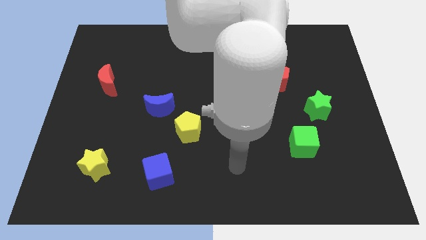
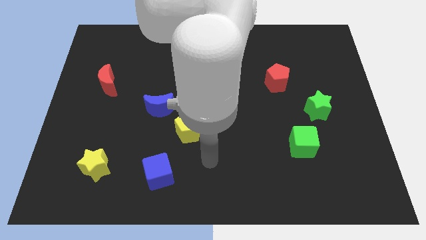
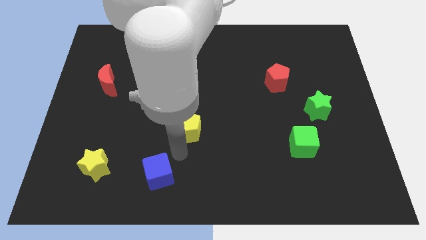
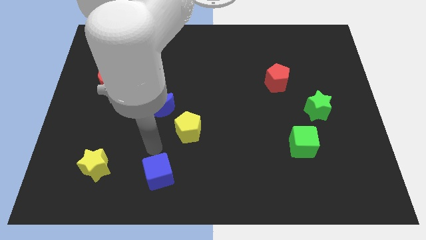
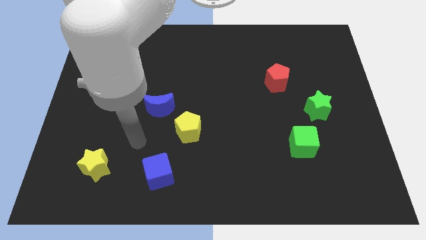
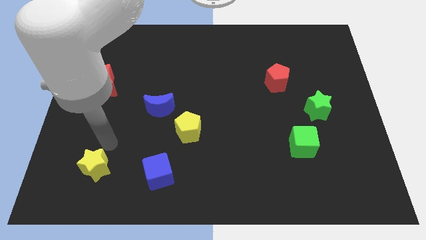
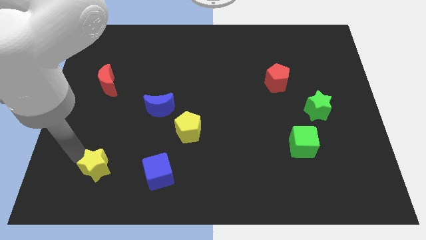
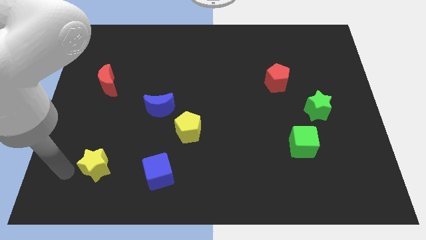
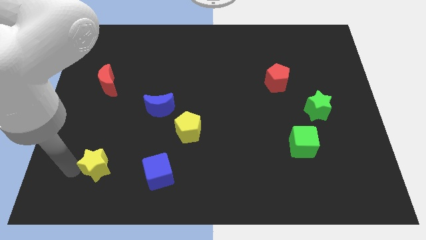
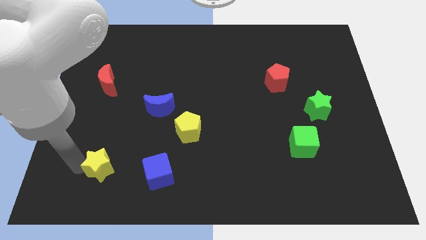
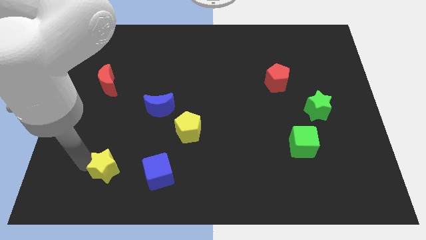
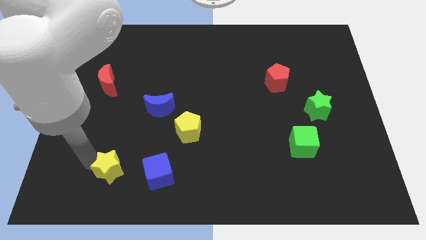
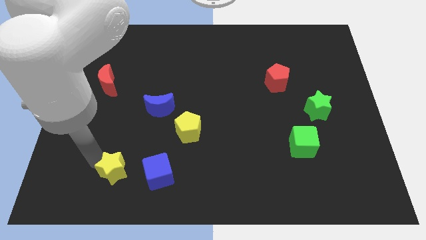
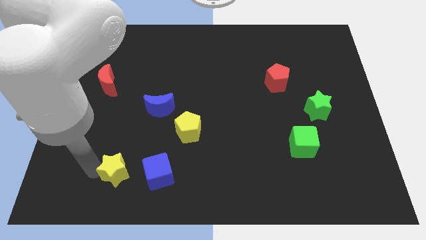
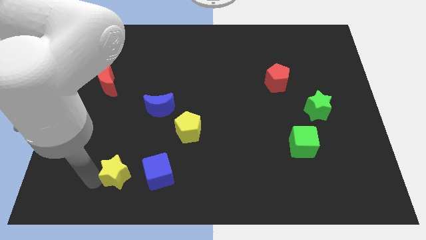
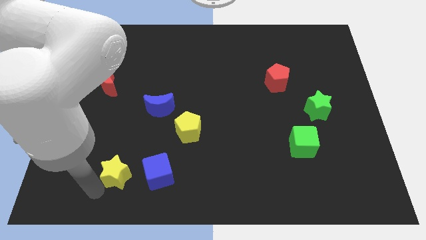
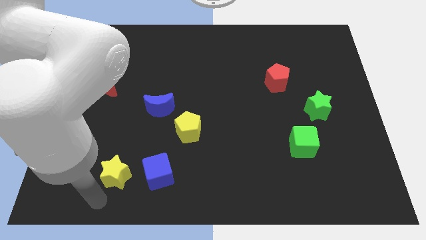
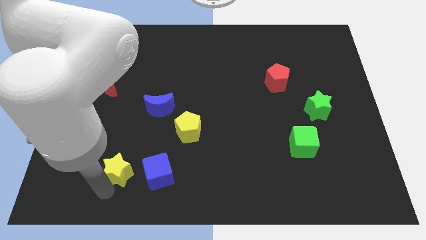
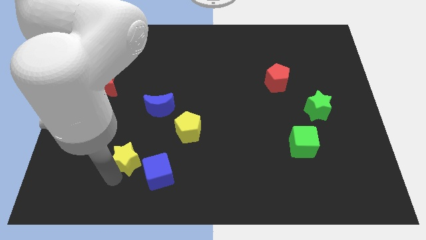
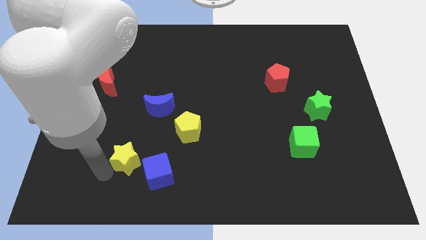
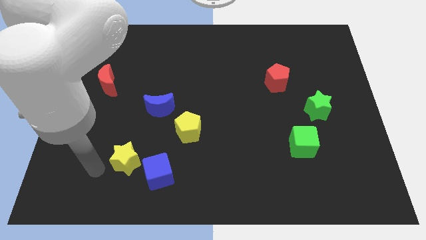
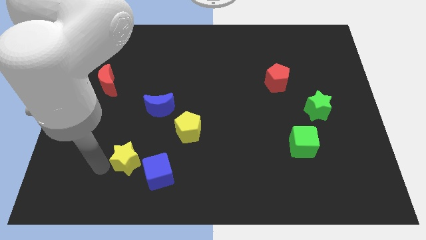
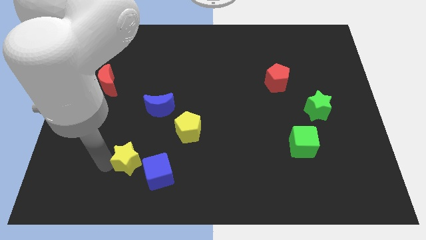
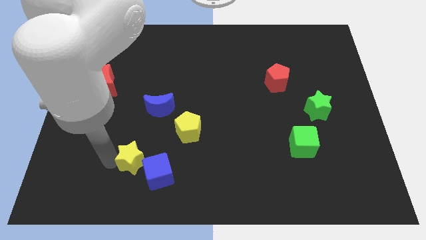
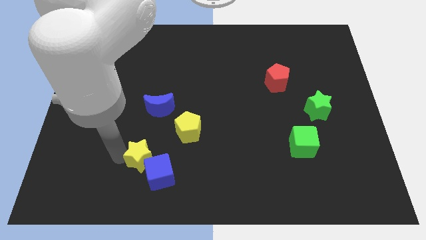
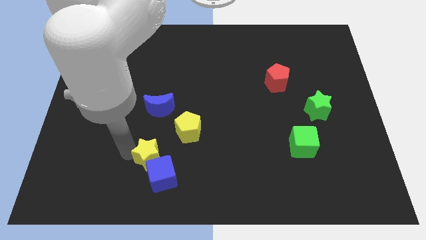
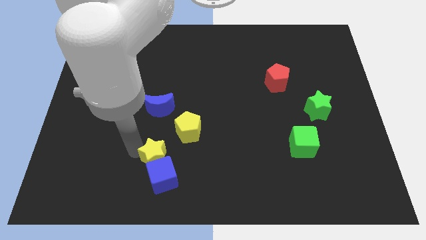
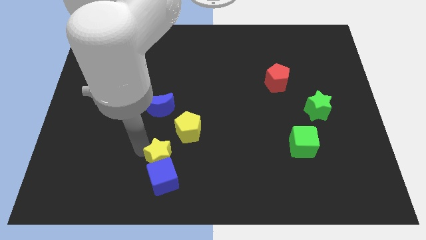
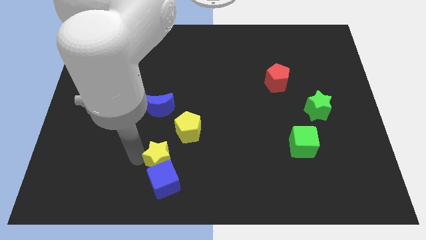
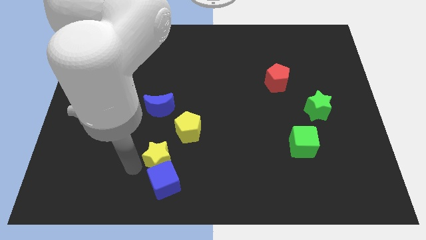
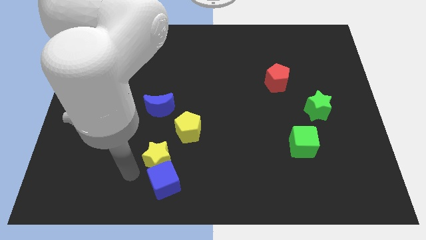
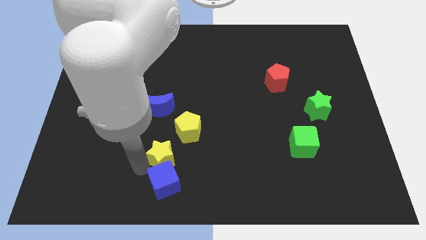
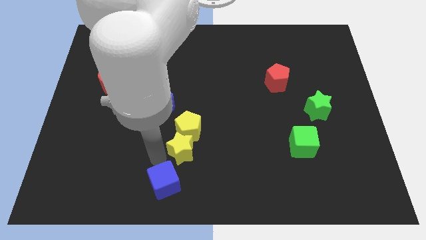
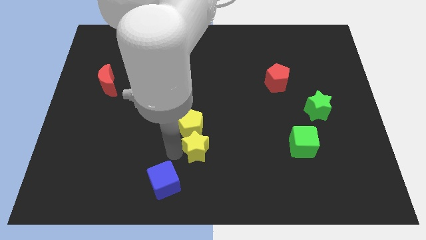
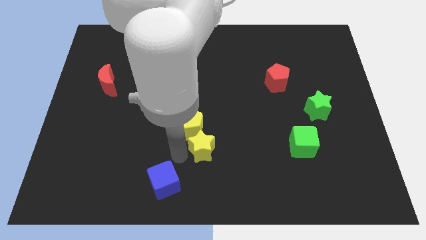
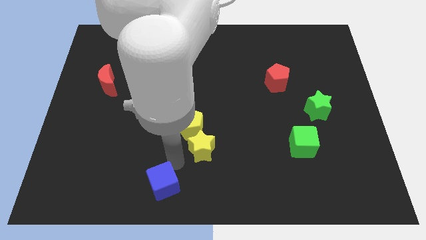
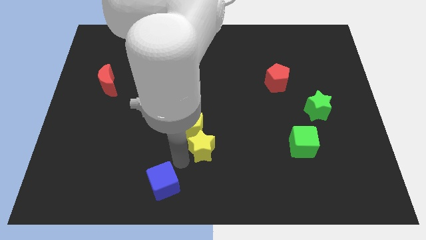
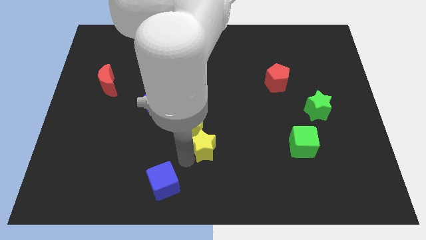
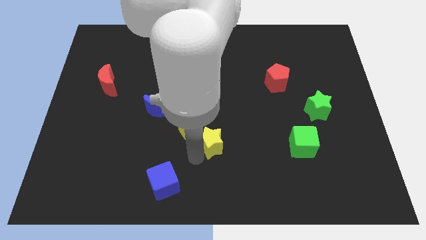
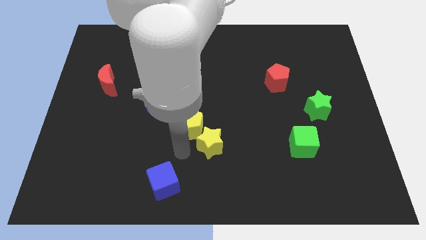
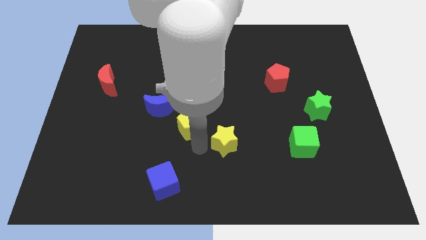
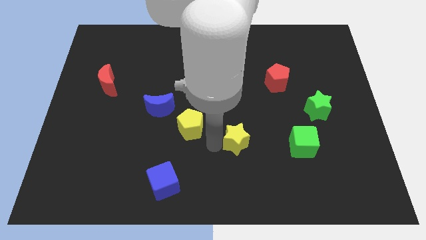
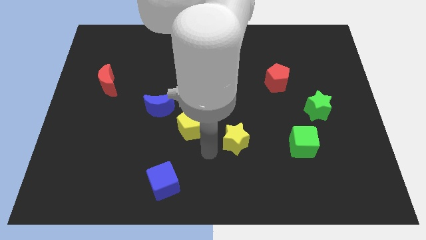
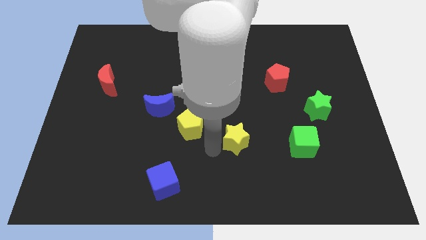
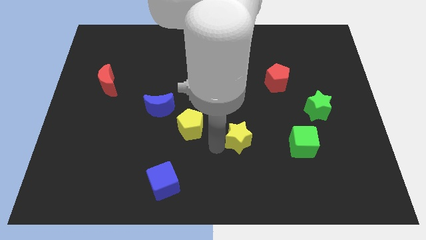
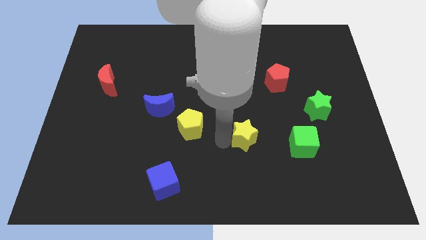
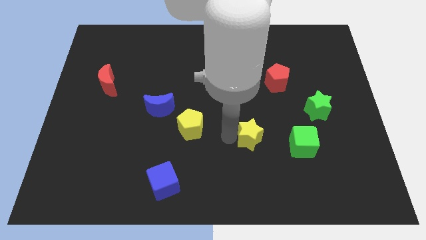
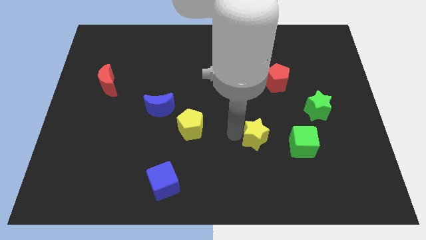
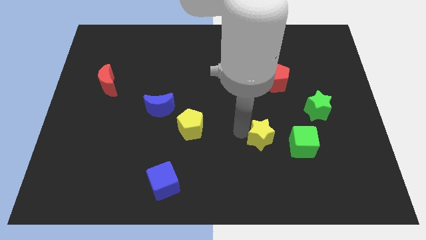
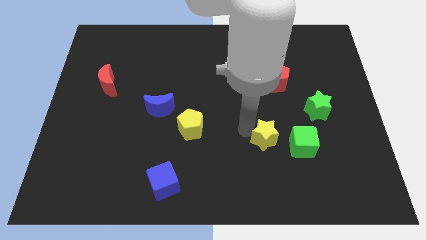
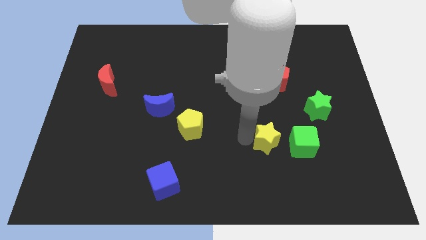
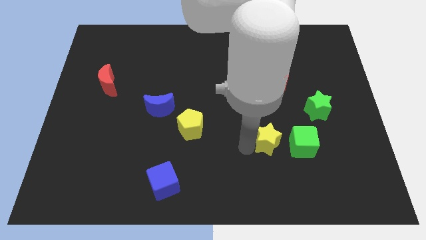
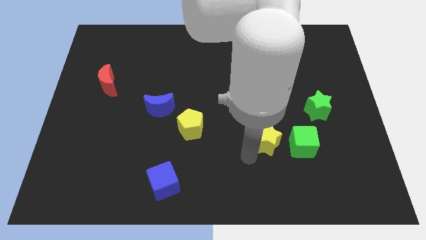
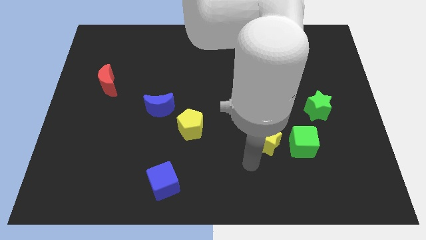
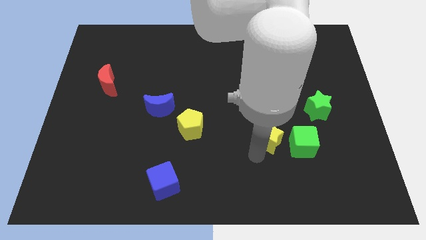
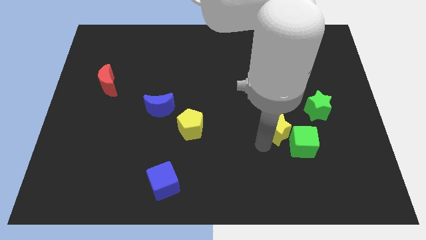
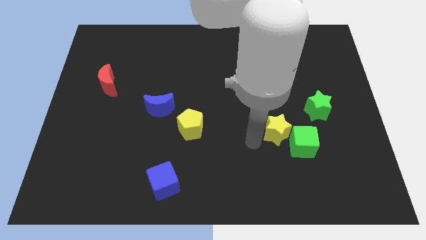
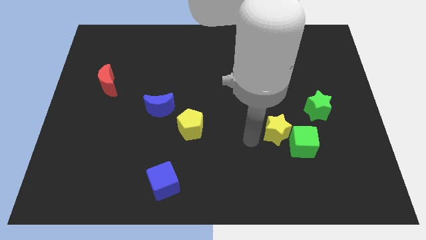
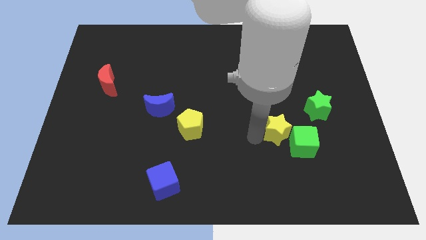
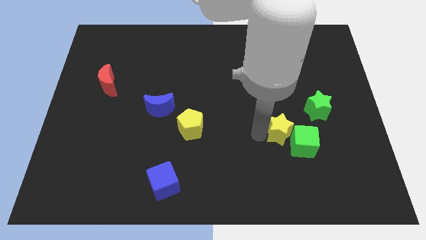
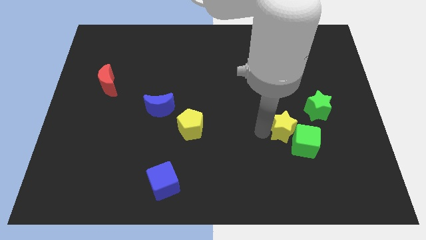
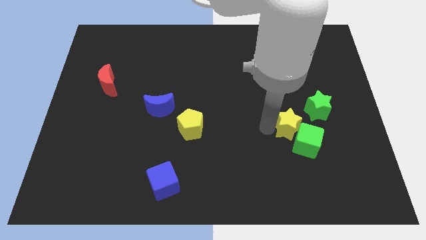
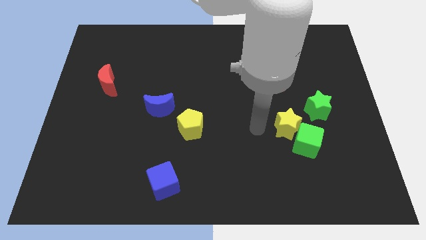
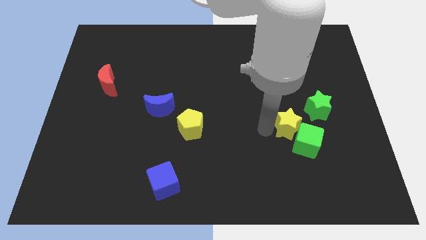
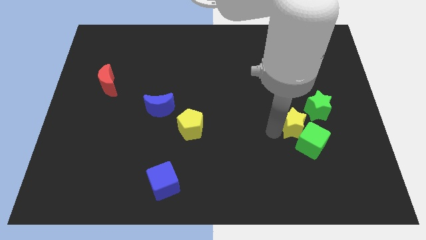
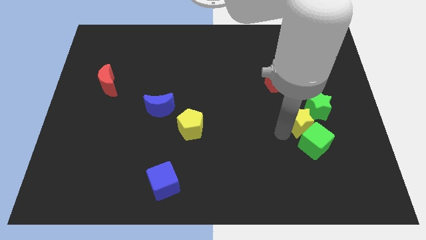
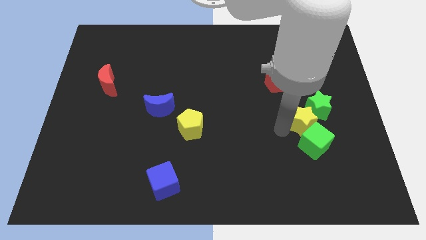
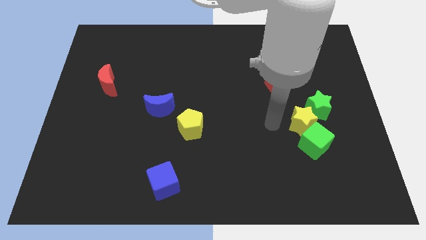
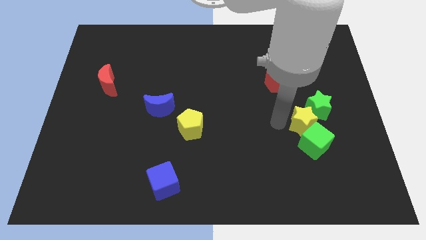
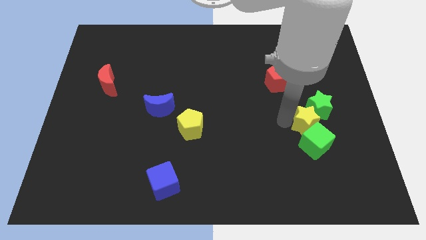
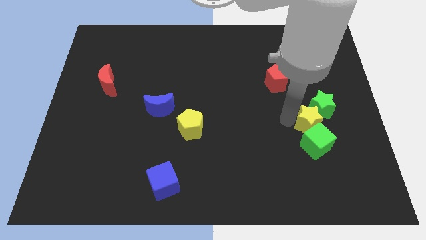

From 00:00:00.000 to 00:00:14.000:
slide the yellow star to the top right side of the green cube

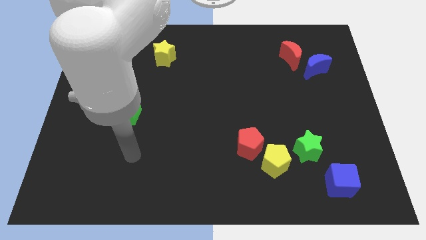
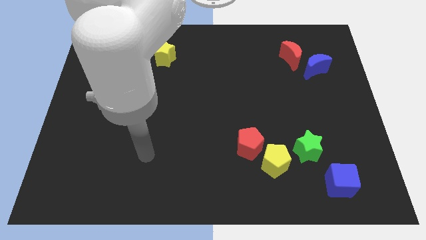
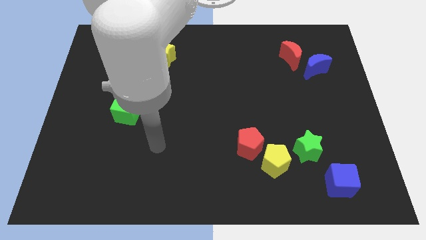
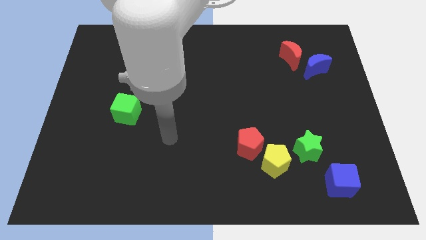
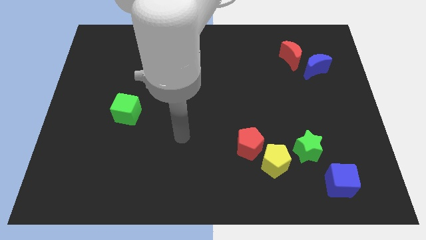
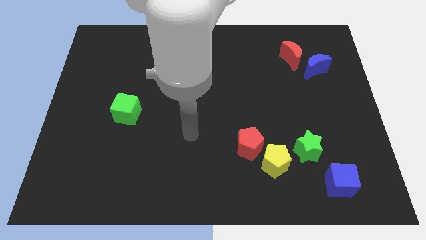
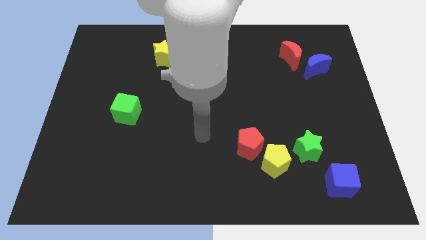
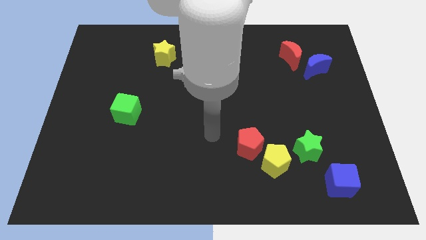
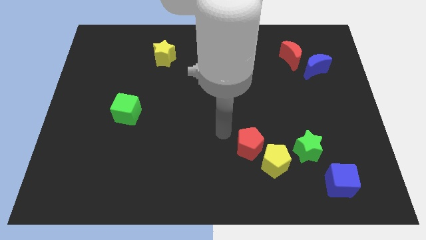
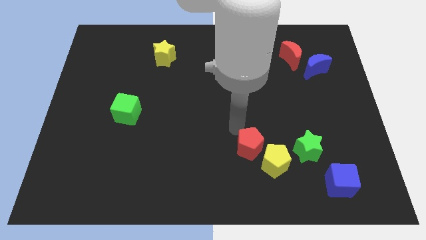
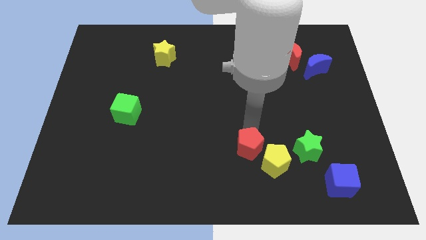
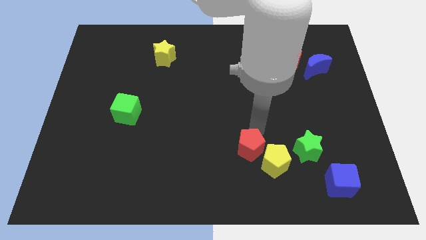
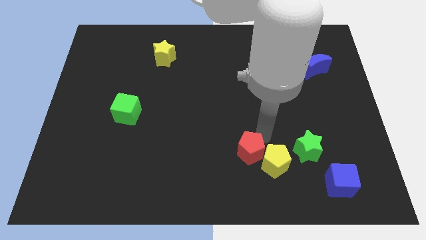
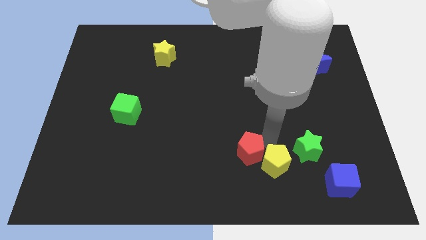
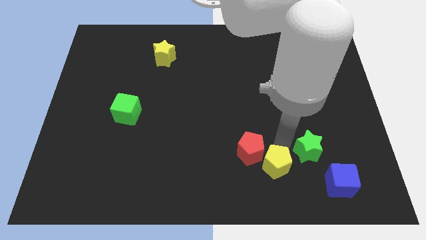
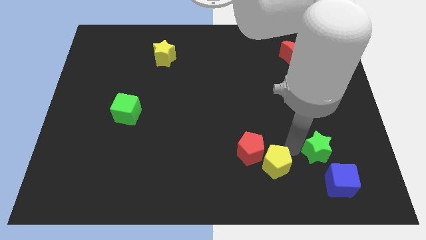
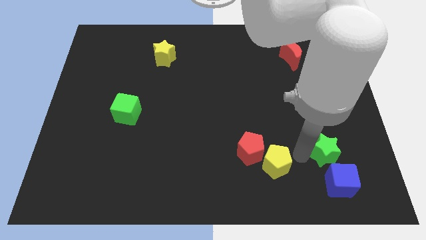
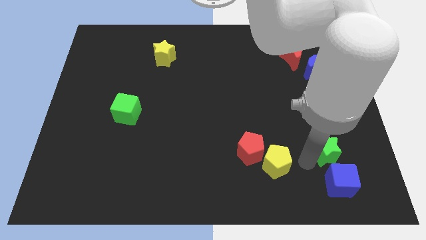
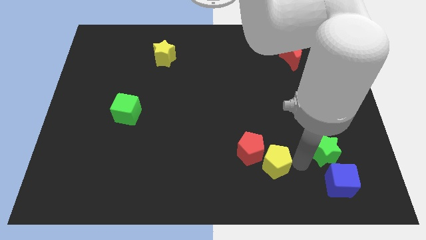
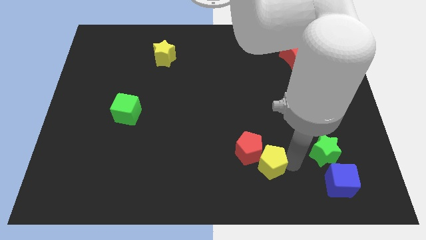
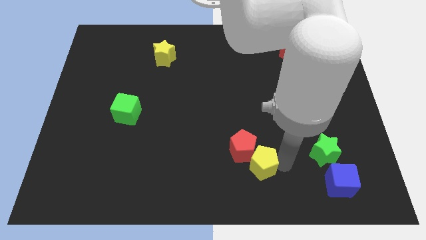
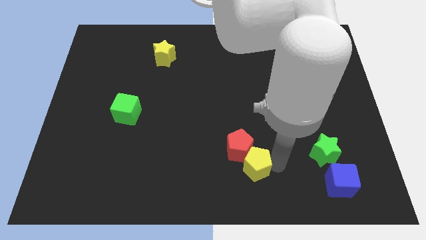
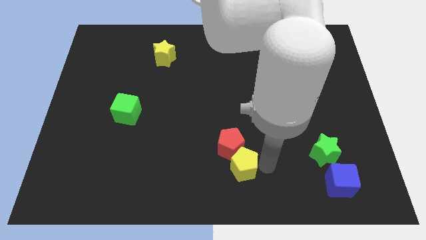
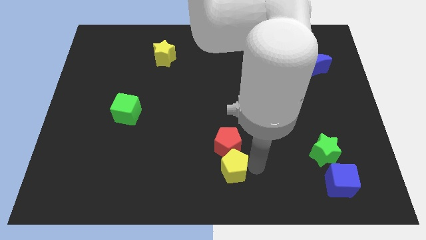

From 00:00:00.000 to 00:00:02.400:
move the yellow pentagon to the bottom left of the red pentagon
